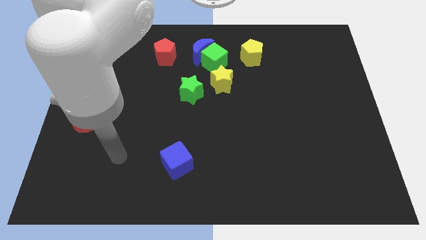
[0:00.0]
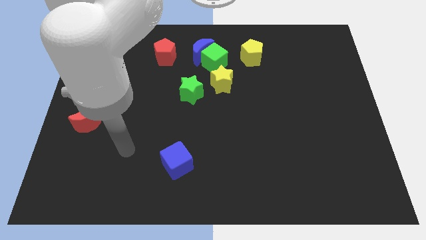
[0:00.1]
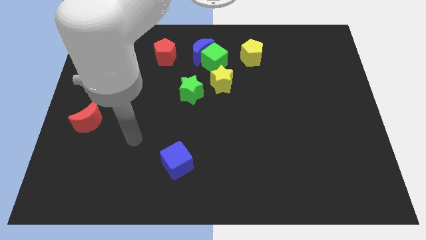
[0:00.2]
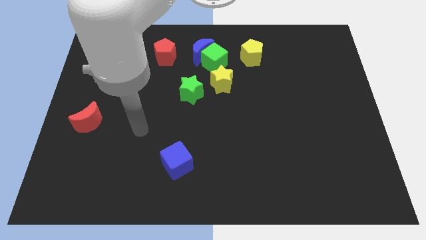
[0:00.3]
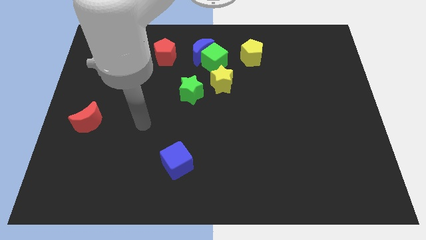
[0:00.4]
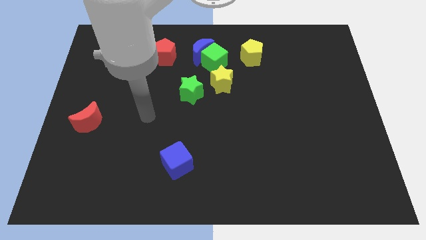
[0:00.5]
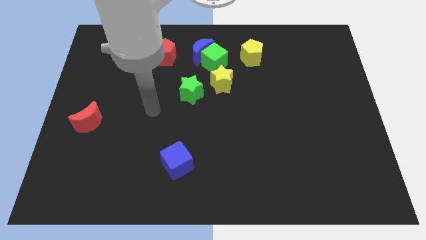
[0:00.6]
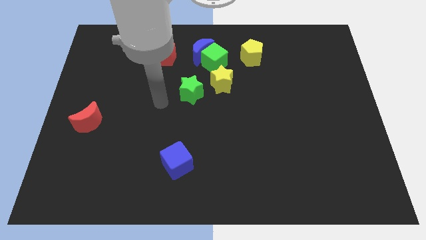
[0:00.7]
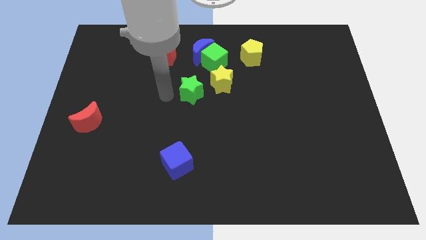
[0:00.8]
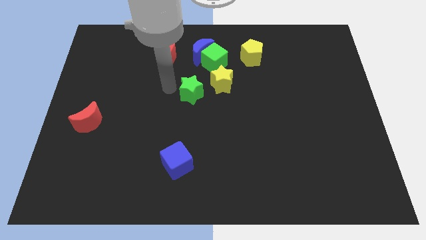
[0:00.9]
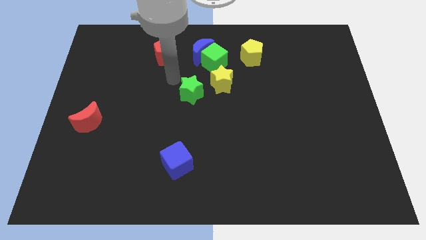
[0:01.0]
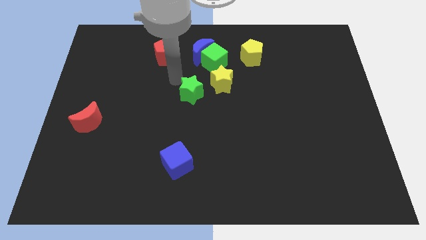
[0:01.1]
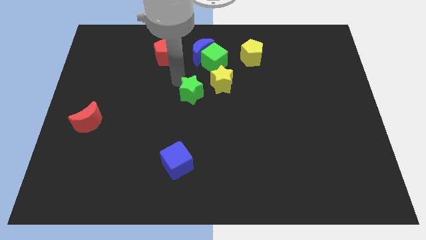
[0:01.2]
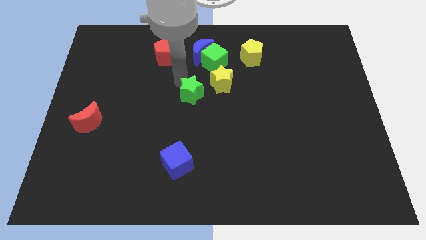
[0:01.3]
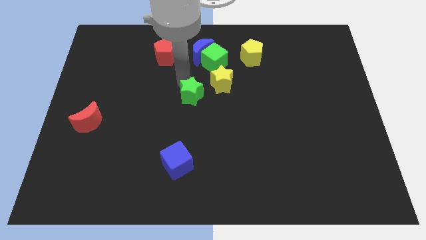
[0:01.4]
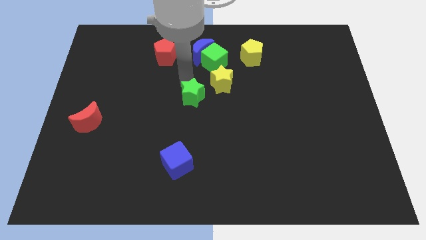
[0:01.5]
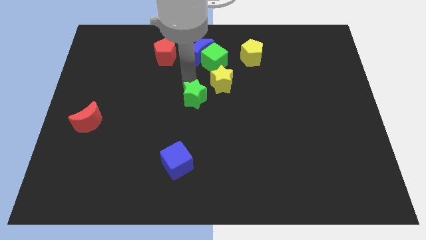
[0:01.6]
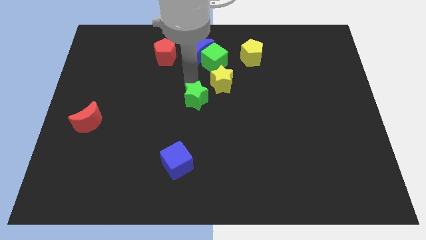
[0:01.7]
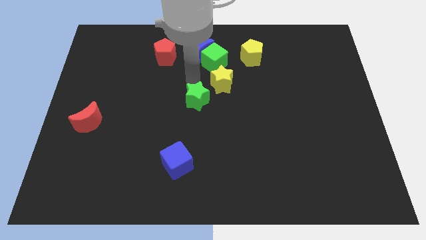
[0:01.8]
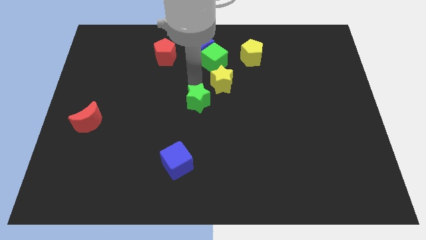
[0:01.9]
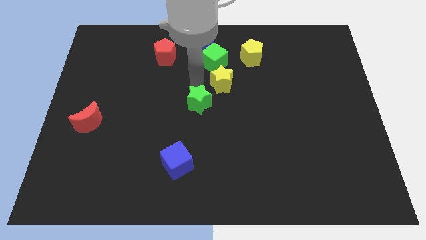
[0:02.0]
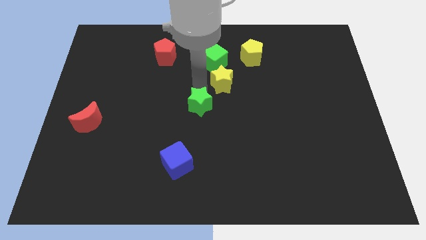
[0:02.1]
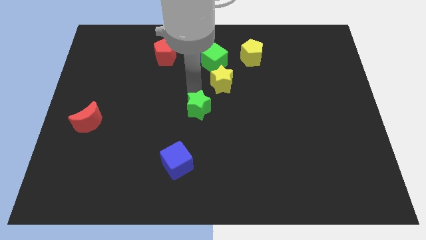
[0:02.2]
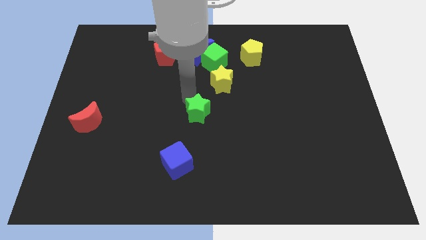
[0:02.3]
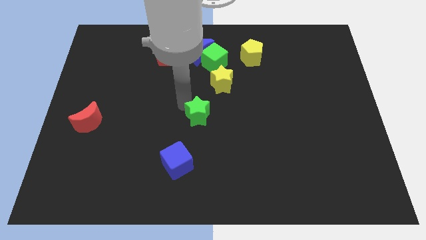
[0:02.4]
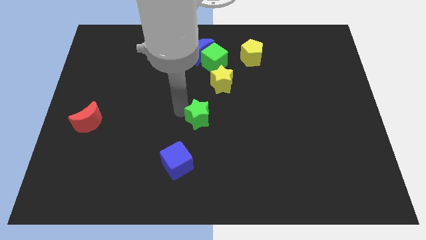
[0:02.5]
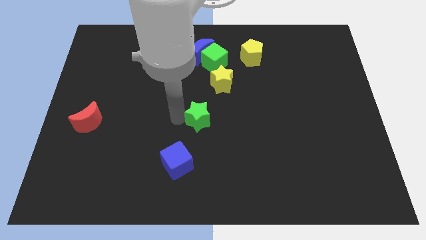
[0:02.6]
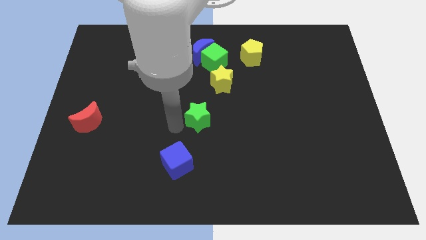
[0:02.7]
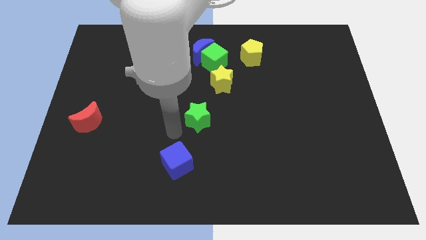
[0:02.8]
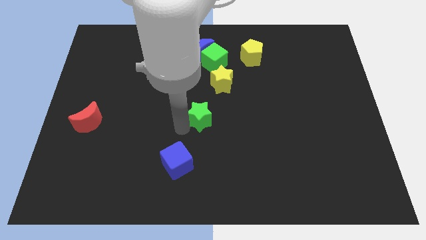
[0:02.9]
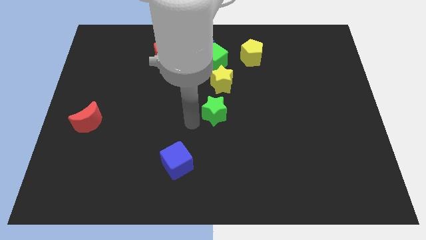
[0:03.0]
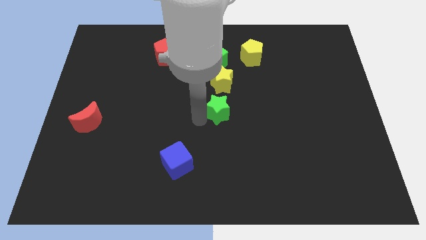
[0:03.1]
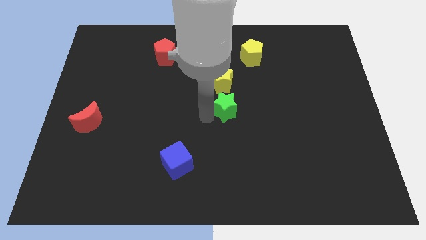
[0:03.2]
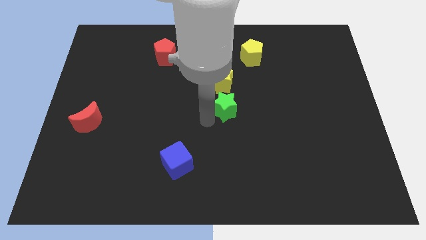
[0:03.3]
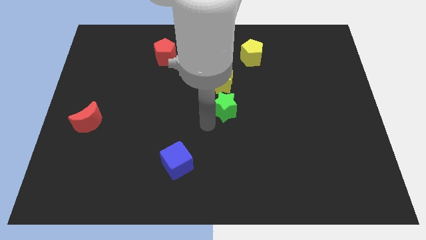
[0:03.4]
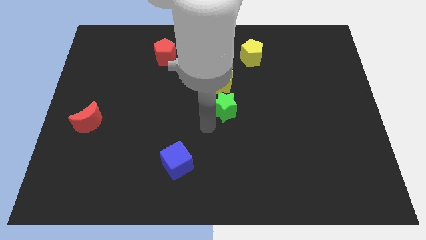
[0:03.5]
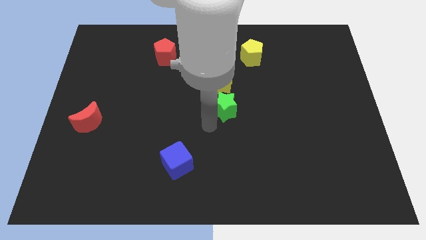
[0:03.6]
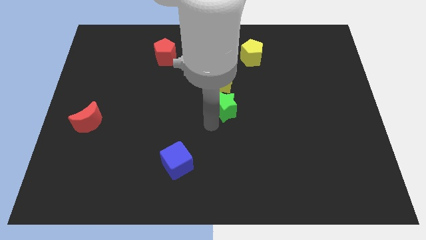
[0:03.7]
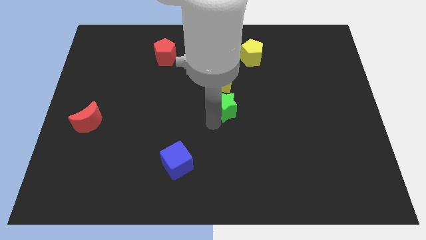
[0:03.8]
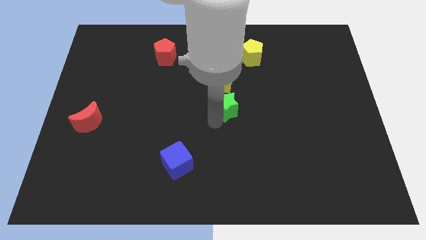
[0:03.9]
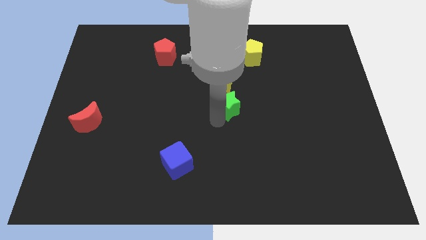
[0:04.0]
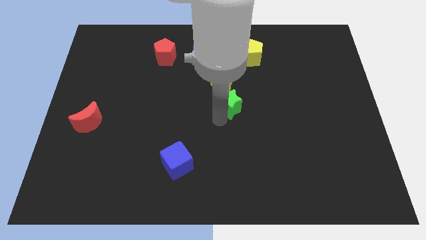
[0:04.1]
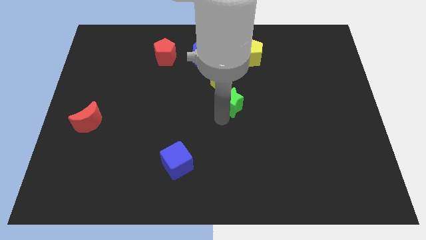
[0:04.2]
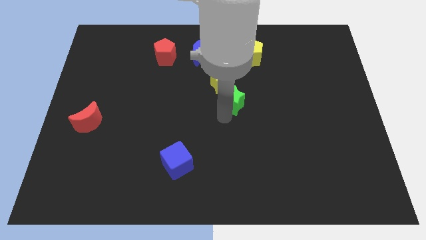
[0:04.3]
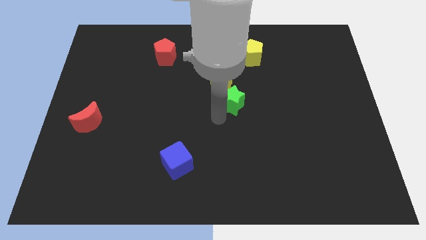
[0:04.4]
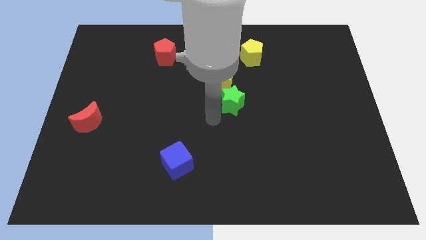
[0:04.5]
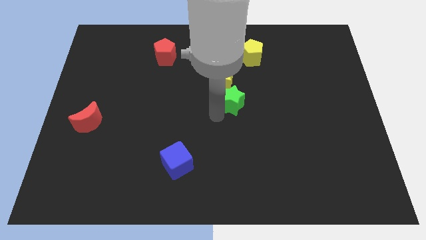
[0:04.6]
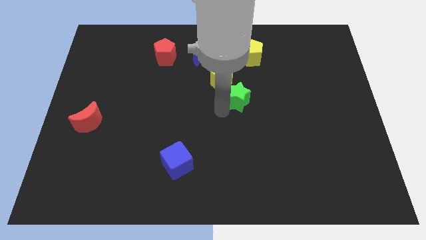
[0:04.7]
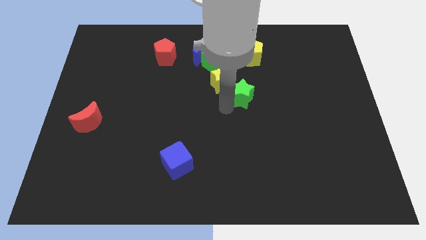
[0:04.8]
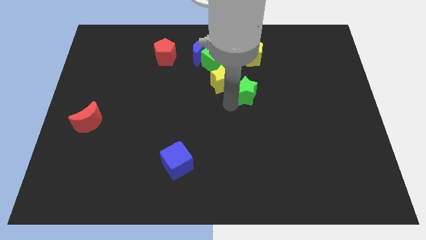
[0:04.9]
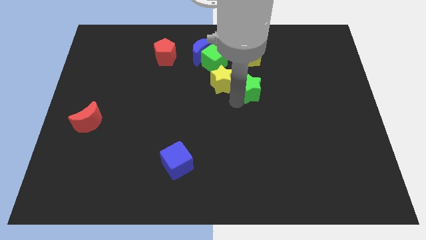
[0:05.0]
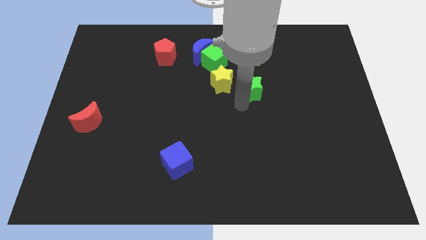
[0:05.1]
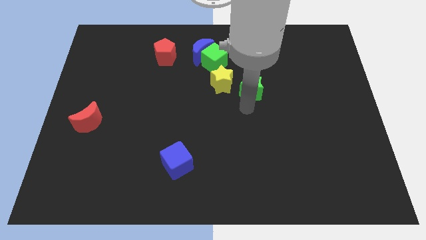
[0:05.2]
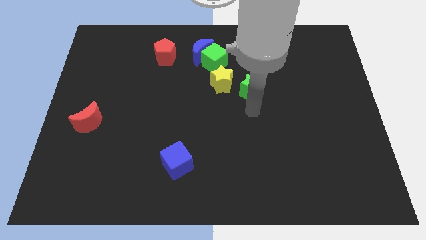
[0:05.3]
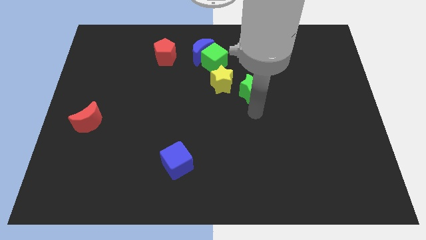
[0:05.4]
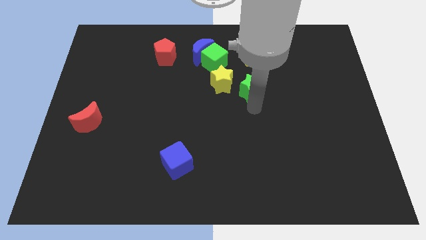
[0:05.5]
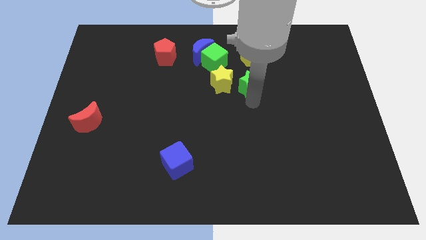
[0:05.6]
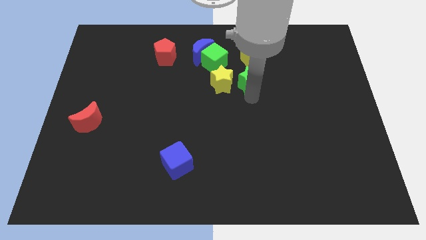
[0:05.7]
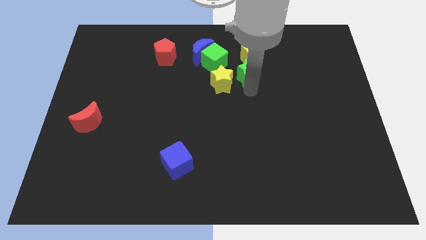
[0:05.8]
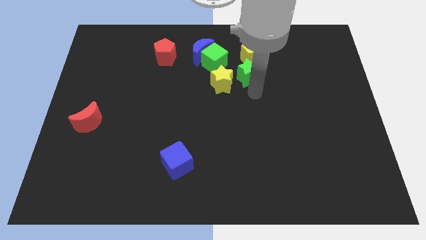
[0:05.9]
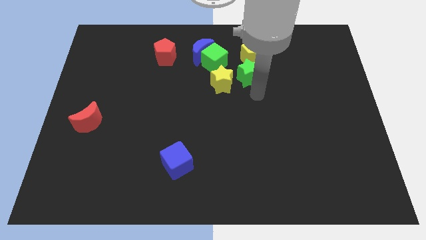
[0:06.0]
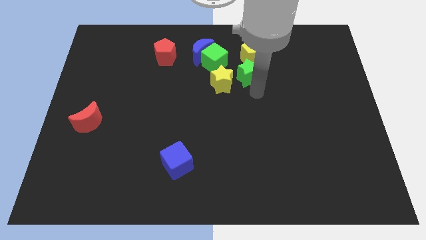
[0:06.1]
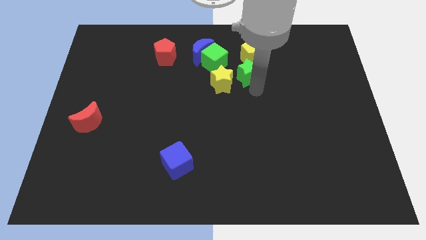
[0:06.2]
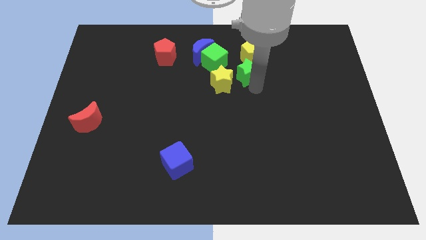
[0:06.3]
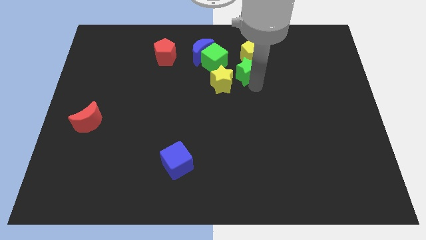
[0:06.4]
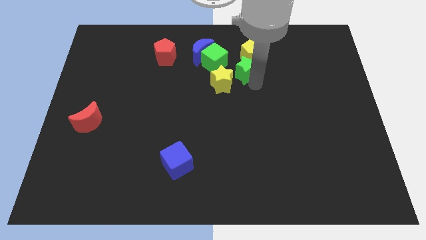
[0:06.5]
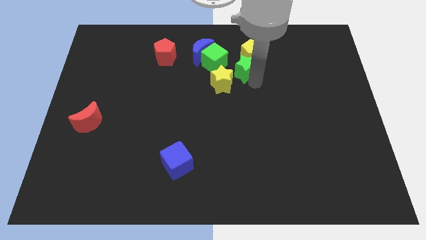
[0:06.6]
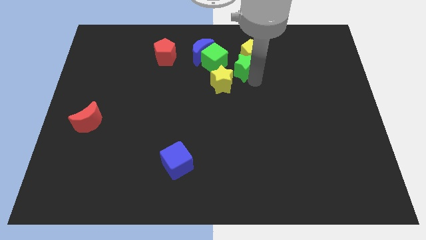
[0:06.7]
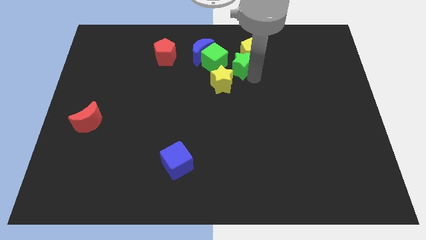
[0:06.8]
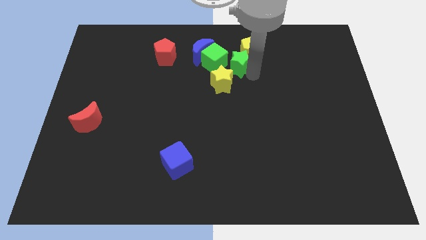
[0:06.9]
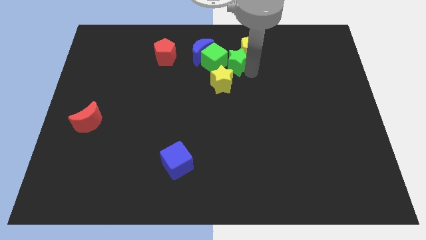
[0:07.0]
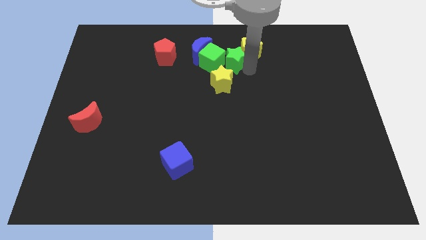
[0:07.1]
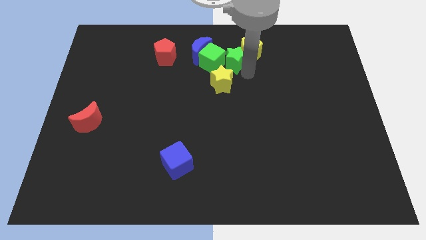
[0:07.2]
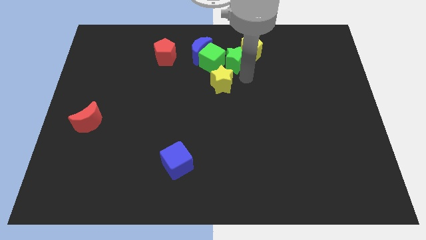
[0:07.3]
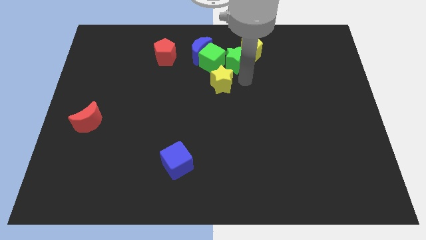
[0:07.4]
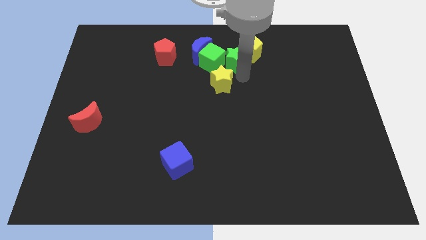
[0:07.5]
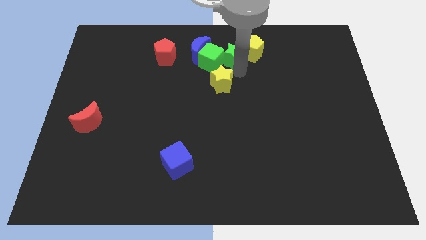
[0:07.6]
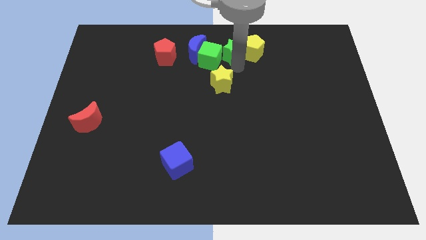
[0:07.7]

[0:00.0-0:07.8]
move the green star to the towards your base
